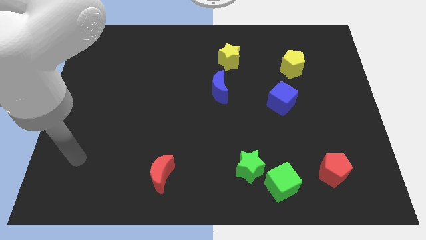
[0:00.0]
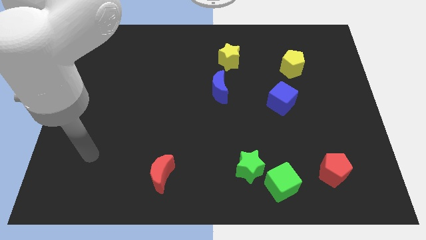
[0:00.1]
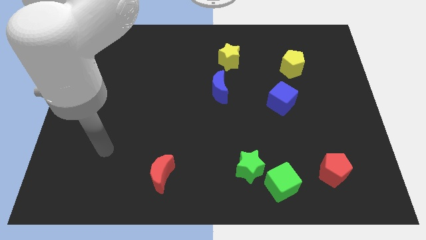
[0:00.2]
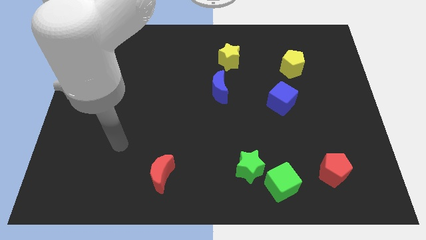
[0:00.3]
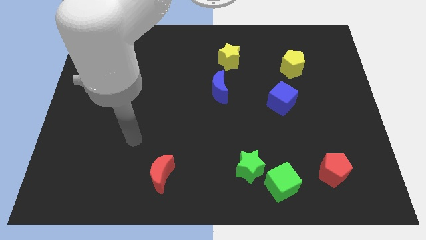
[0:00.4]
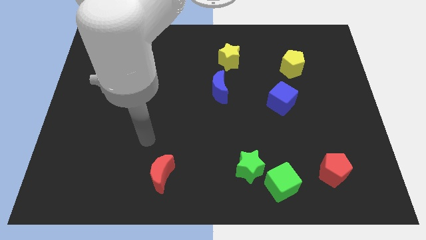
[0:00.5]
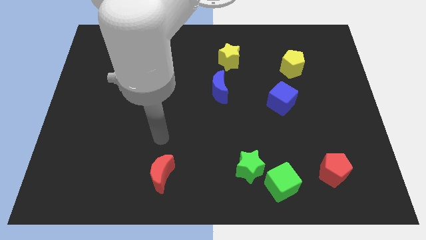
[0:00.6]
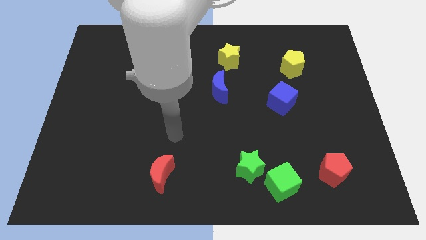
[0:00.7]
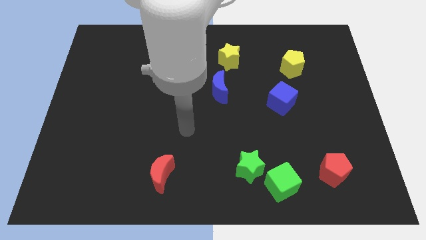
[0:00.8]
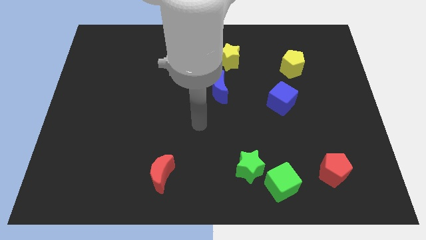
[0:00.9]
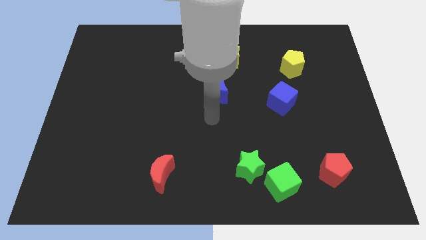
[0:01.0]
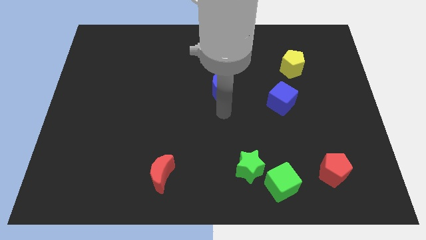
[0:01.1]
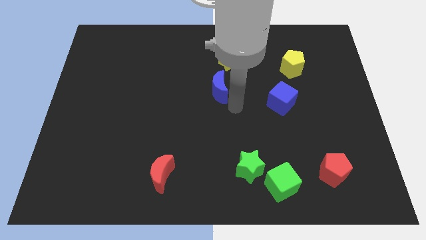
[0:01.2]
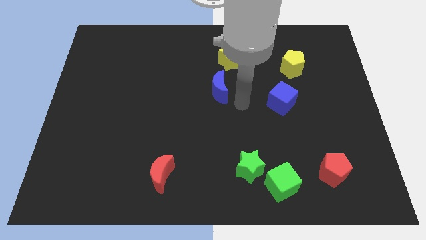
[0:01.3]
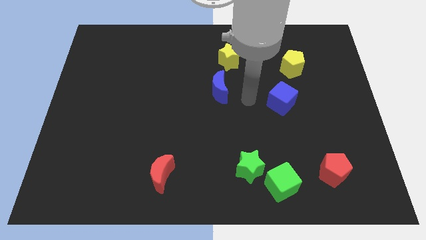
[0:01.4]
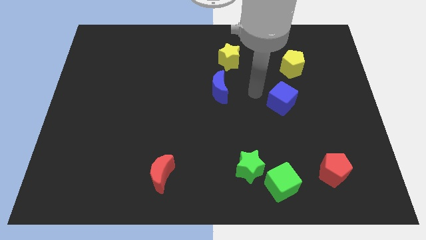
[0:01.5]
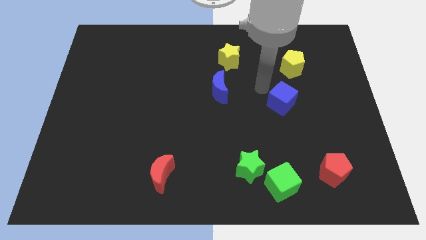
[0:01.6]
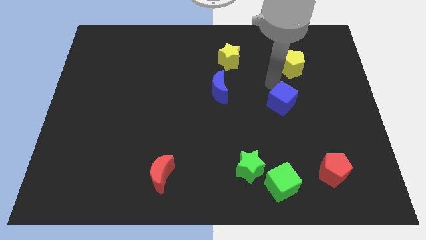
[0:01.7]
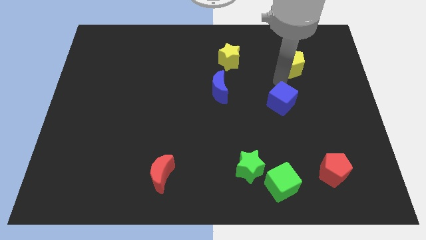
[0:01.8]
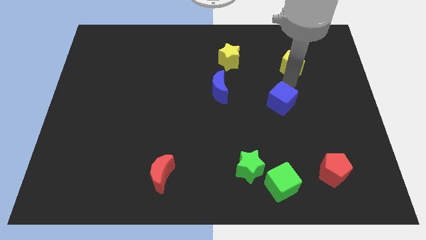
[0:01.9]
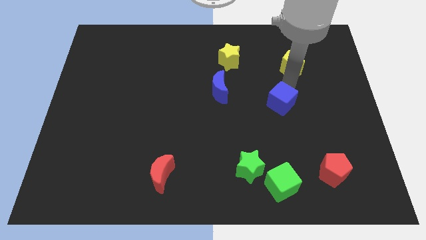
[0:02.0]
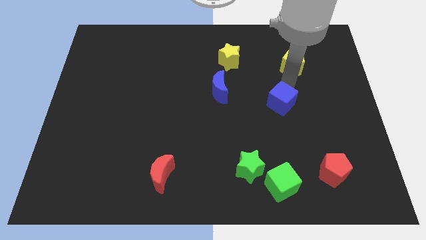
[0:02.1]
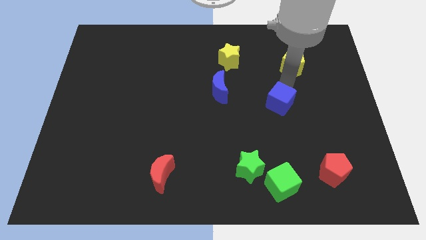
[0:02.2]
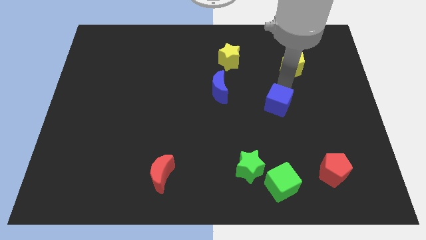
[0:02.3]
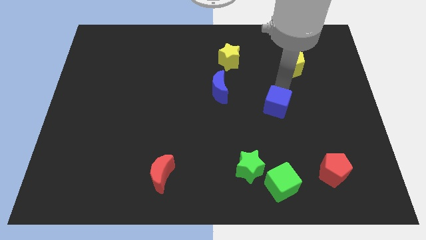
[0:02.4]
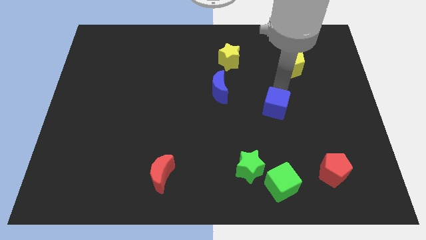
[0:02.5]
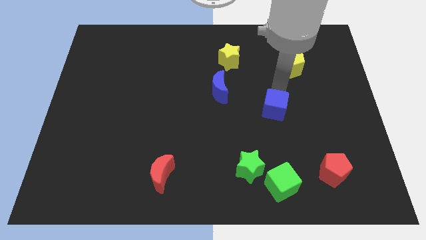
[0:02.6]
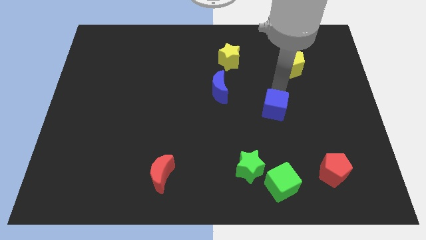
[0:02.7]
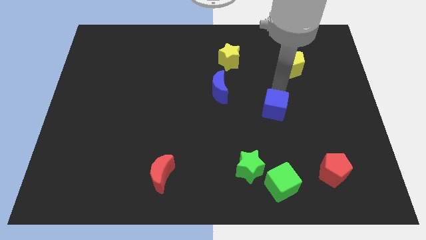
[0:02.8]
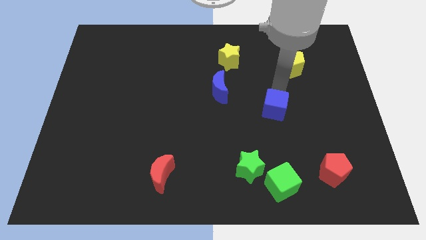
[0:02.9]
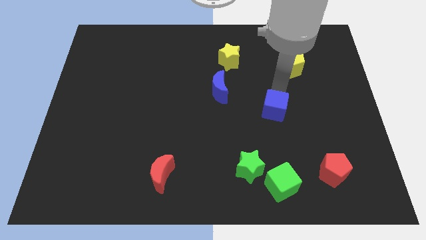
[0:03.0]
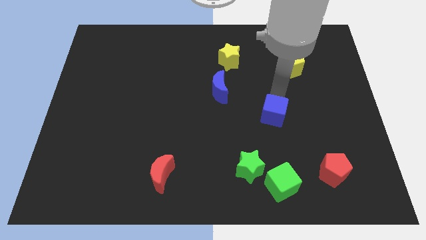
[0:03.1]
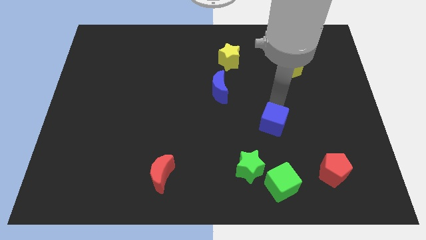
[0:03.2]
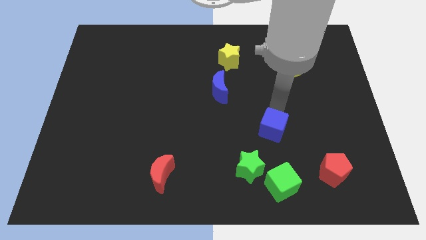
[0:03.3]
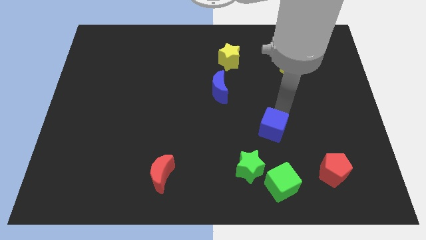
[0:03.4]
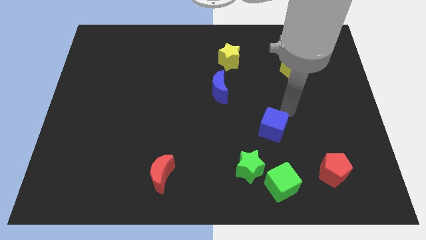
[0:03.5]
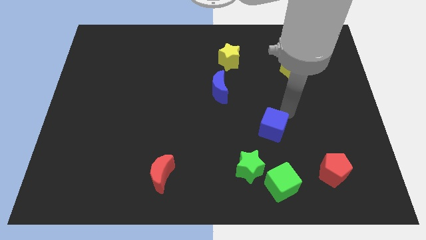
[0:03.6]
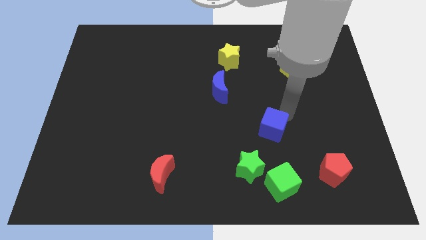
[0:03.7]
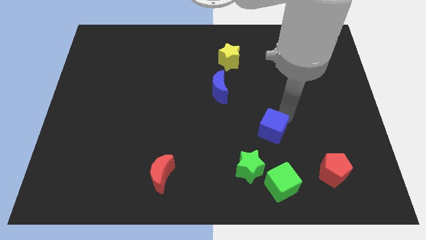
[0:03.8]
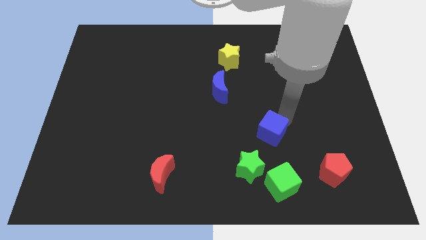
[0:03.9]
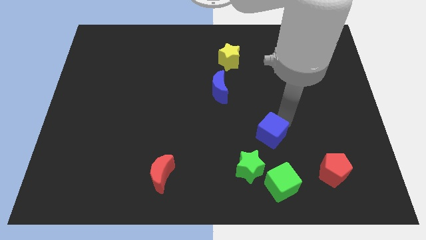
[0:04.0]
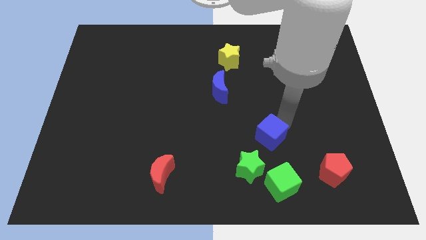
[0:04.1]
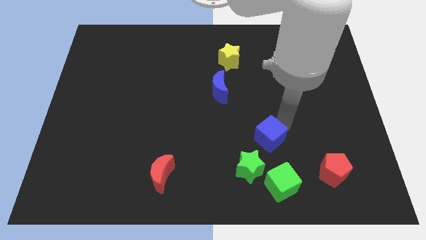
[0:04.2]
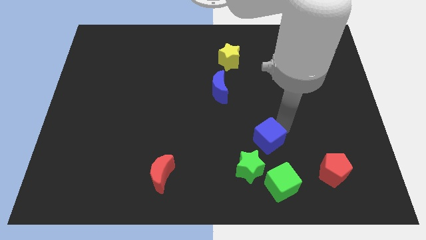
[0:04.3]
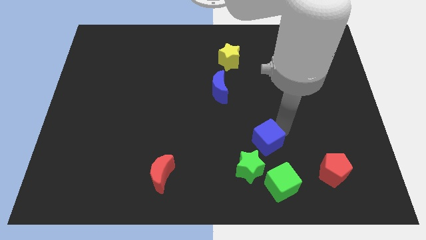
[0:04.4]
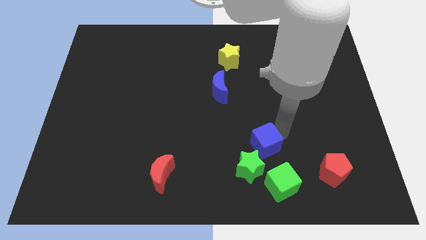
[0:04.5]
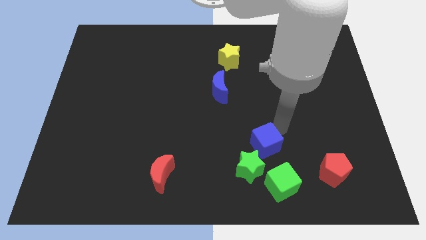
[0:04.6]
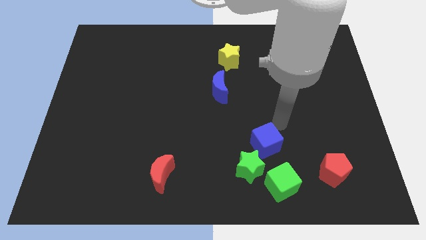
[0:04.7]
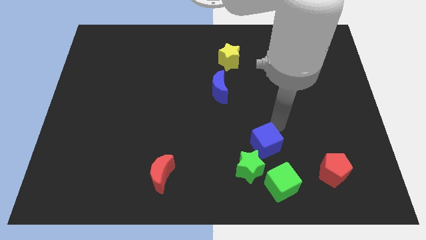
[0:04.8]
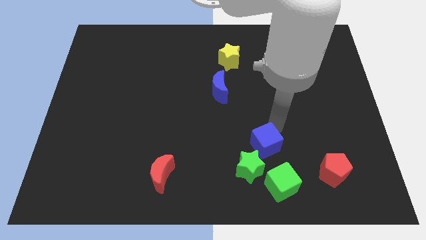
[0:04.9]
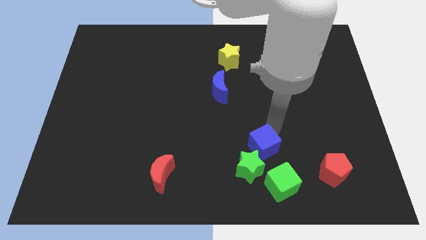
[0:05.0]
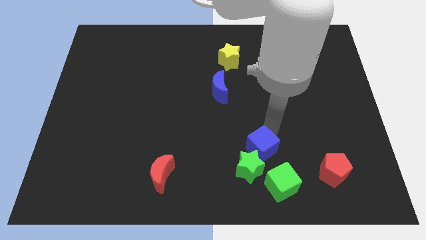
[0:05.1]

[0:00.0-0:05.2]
put the blue cube next to the green star

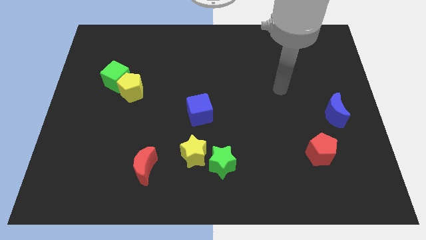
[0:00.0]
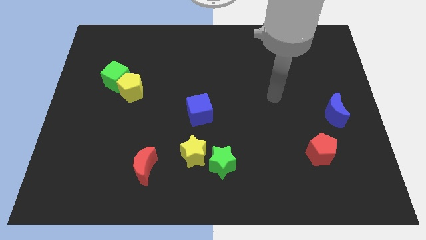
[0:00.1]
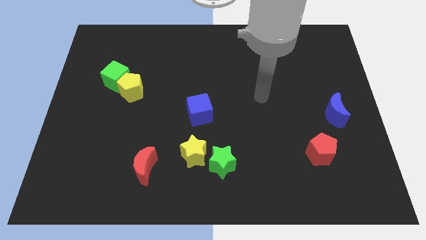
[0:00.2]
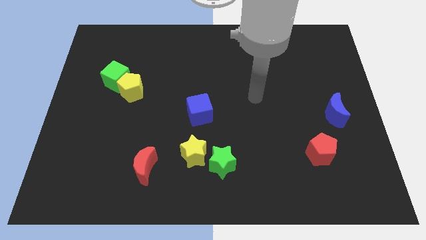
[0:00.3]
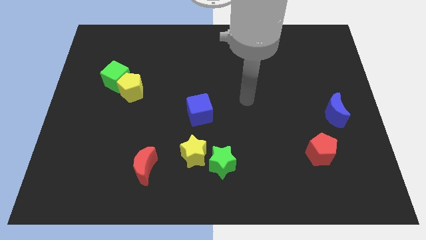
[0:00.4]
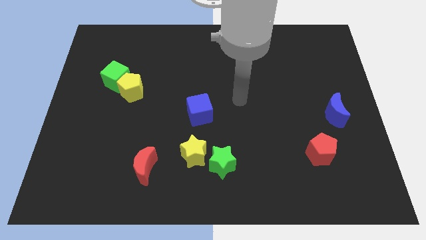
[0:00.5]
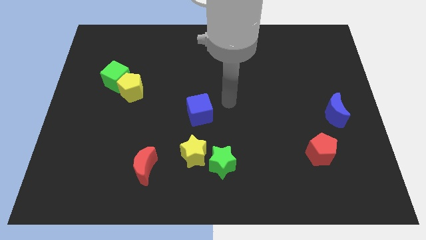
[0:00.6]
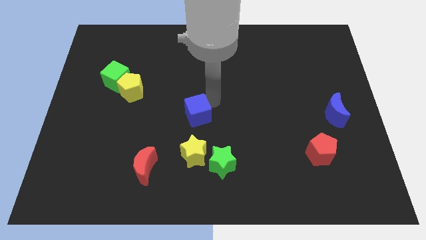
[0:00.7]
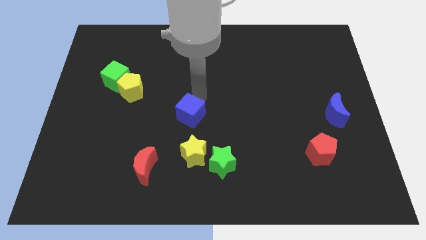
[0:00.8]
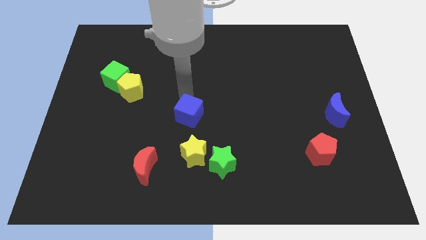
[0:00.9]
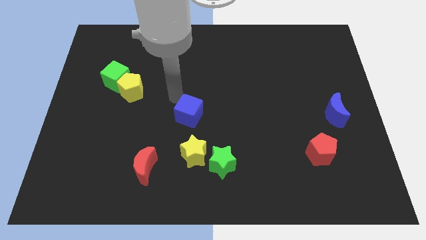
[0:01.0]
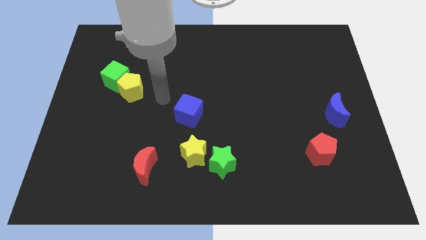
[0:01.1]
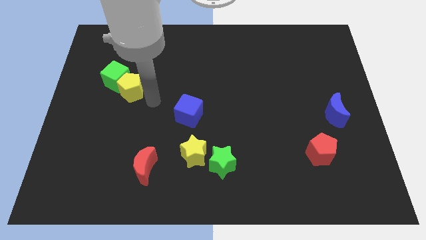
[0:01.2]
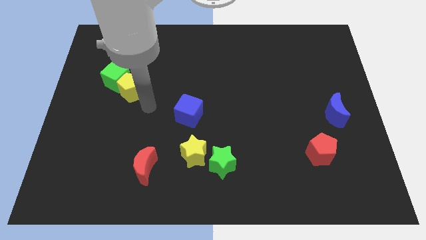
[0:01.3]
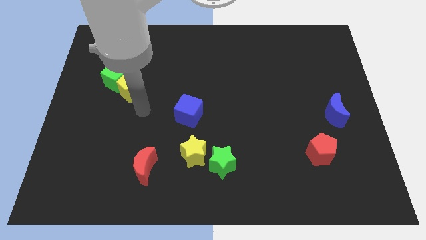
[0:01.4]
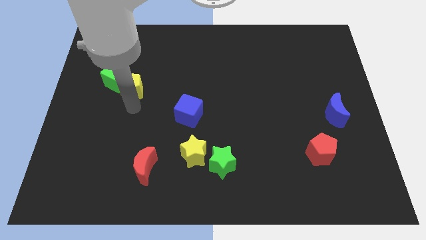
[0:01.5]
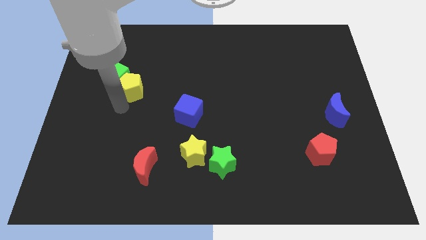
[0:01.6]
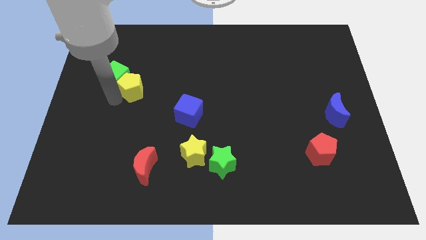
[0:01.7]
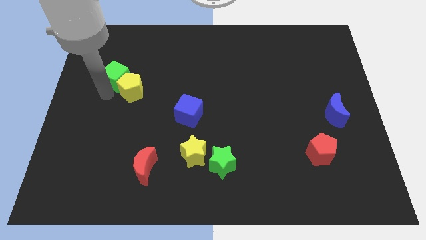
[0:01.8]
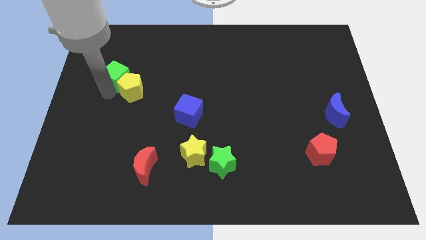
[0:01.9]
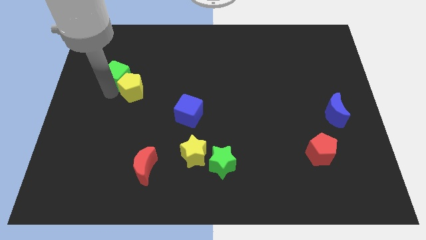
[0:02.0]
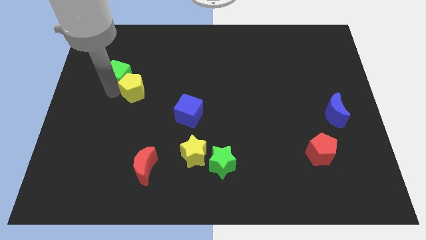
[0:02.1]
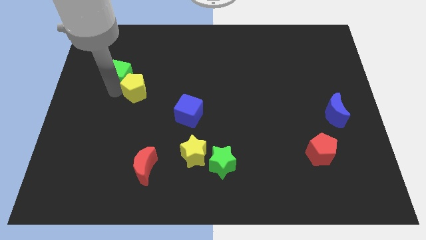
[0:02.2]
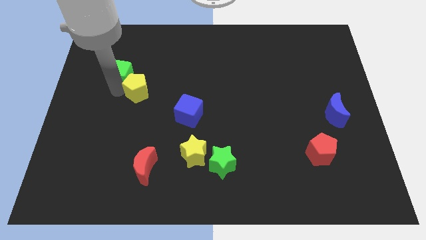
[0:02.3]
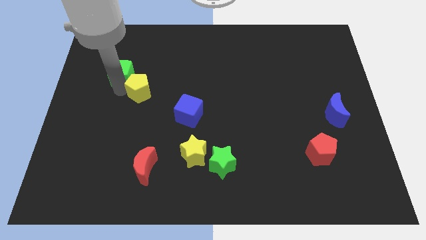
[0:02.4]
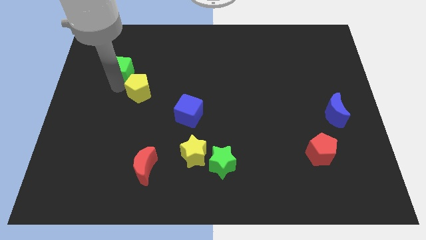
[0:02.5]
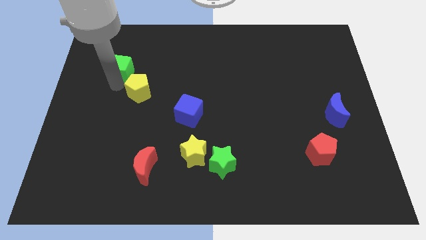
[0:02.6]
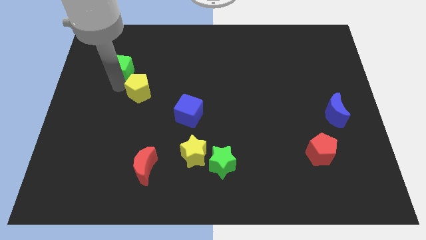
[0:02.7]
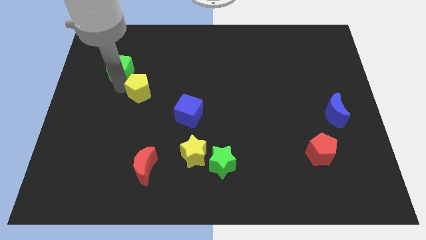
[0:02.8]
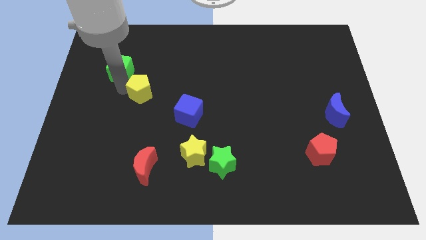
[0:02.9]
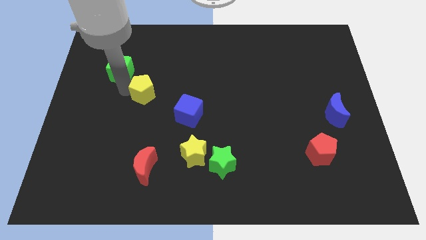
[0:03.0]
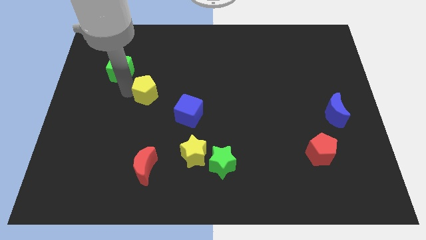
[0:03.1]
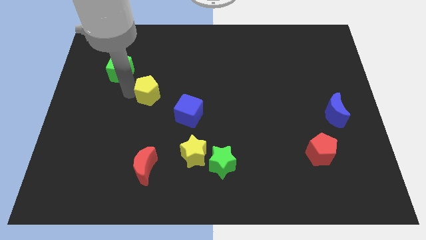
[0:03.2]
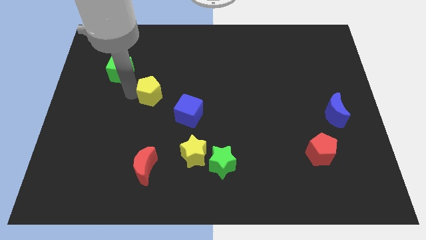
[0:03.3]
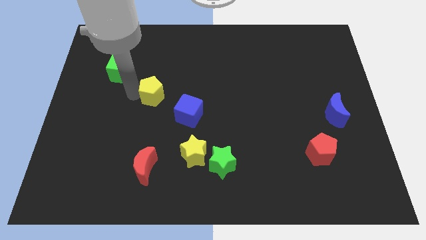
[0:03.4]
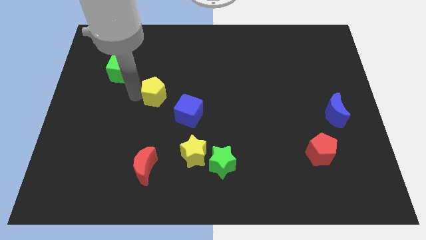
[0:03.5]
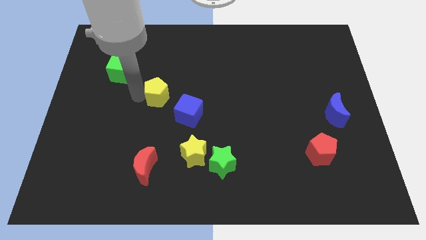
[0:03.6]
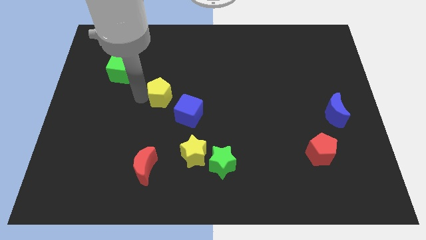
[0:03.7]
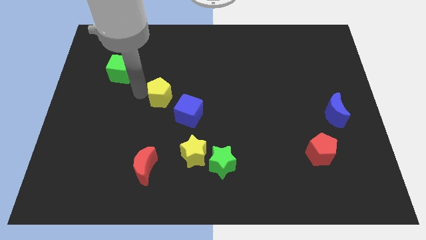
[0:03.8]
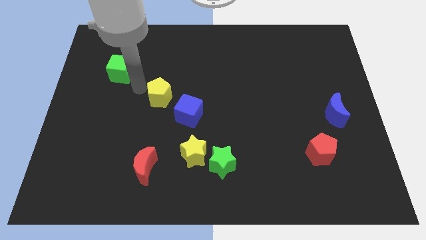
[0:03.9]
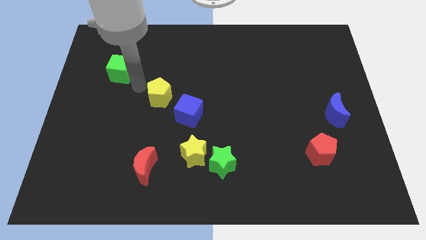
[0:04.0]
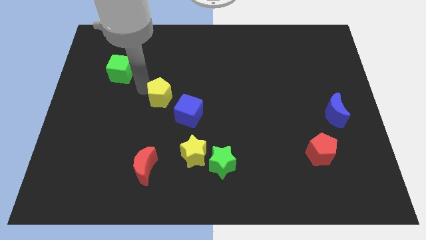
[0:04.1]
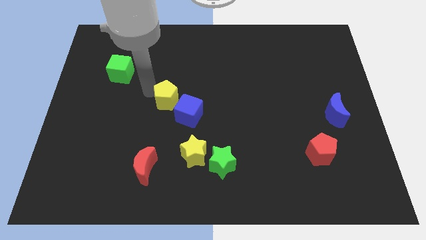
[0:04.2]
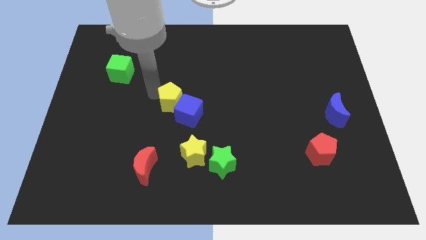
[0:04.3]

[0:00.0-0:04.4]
put the yellow pentagon towards the blue cube
